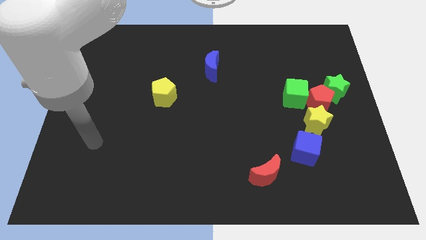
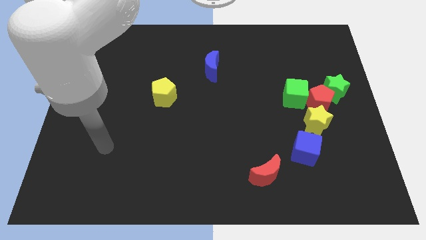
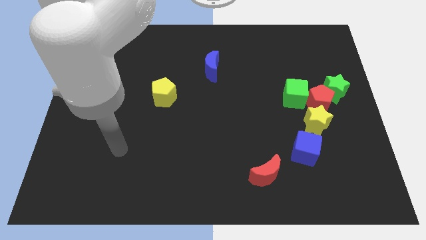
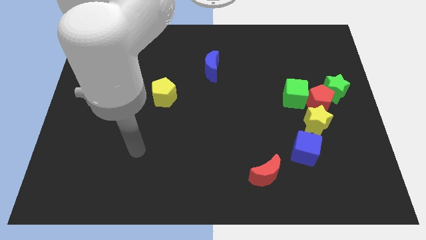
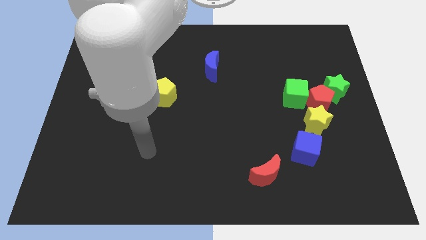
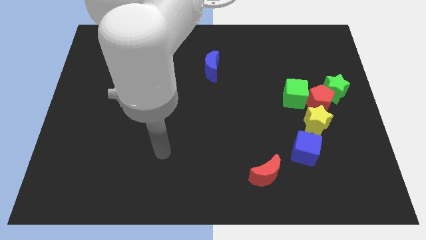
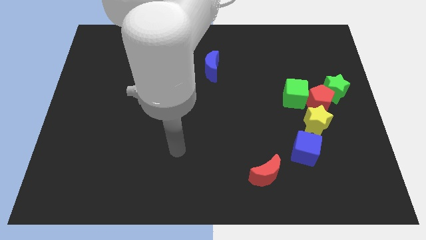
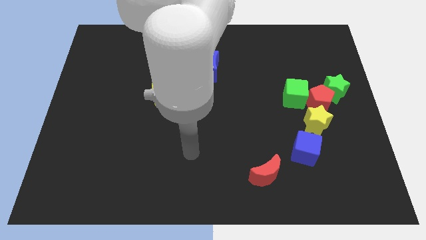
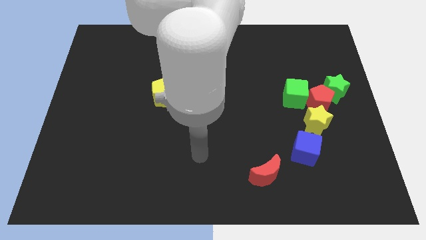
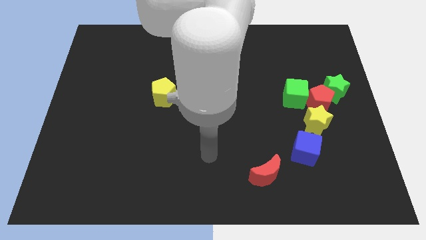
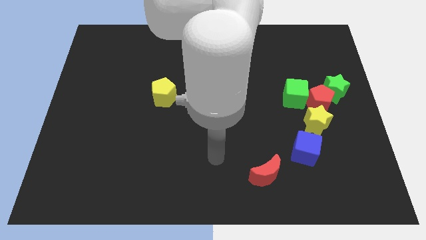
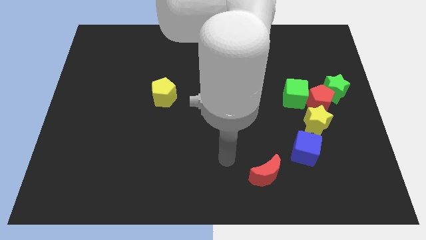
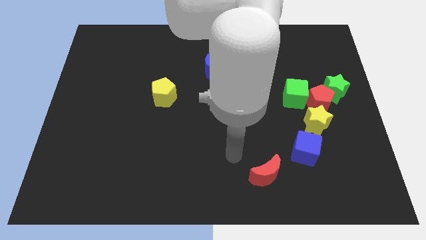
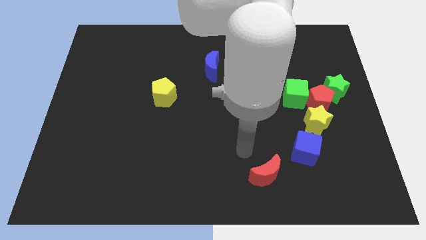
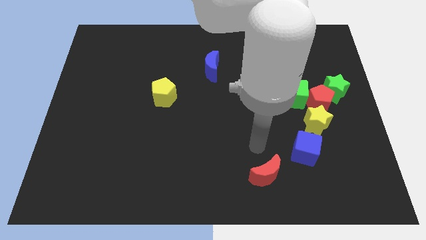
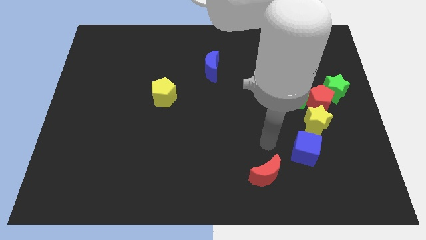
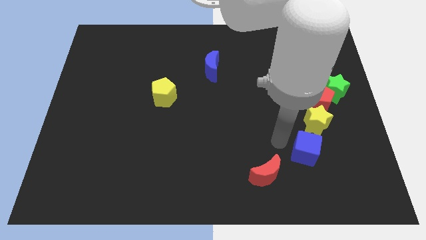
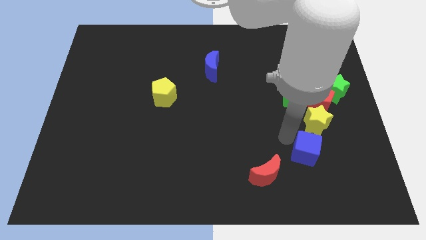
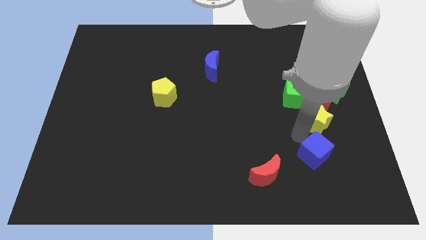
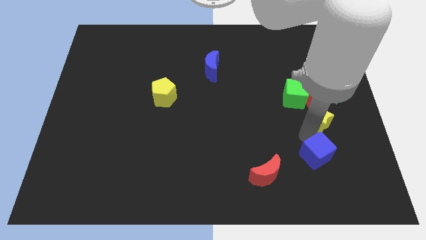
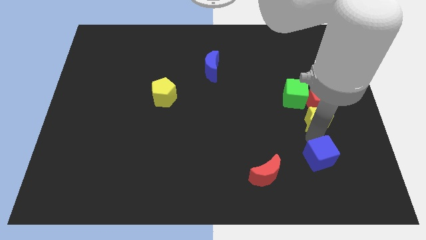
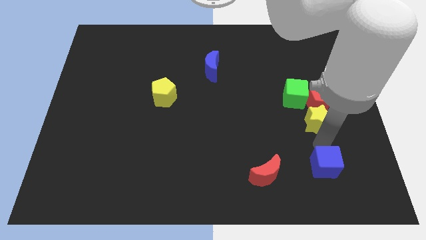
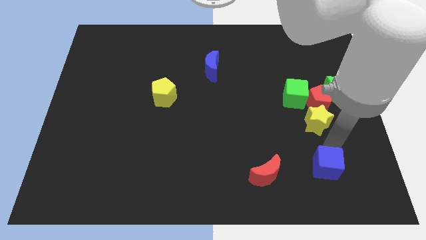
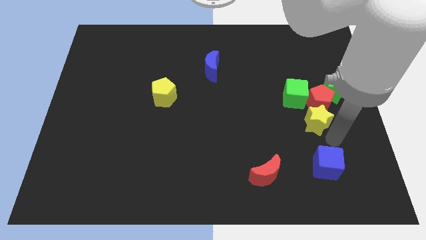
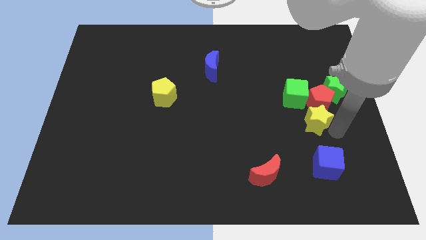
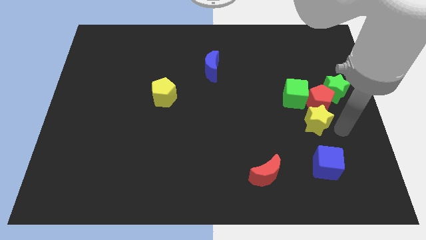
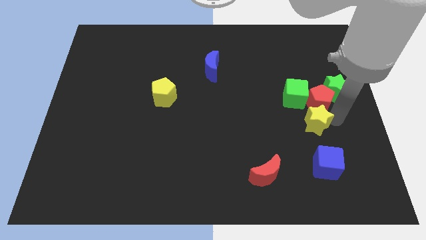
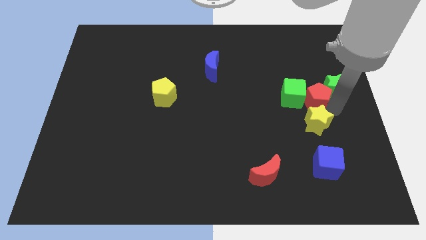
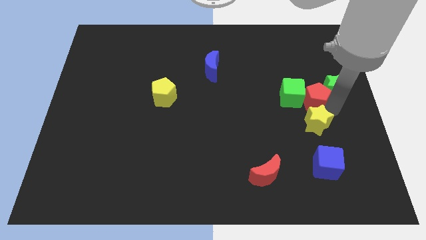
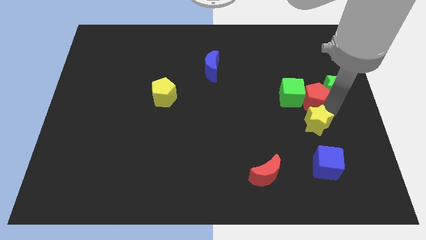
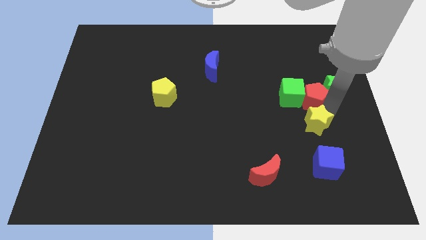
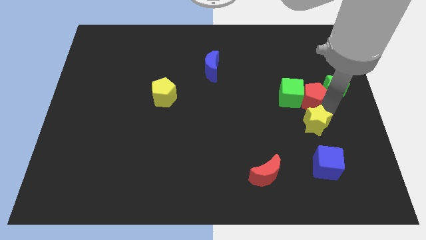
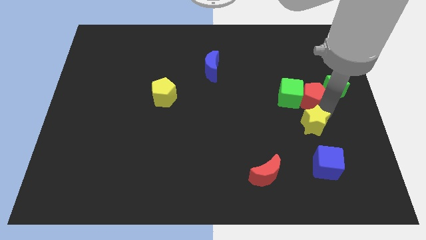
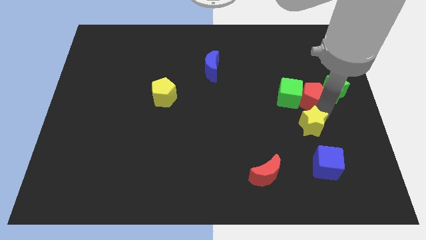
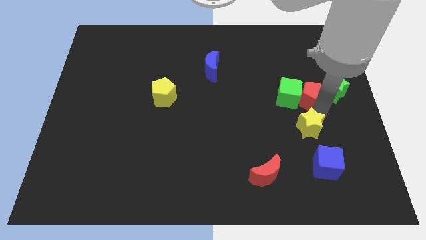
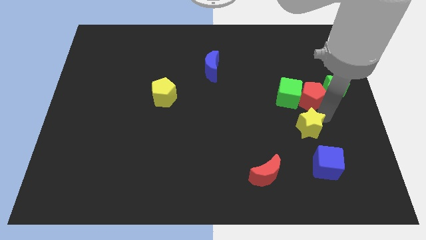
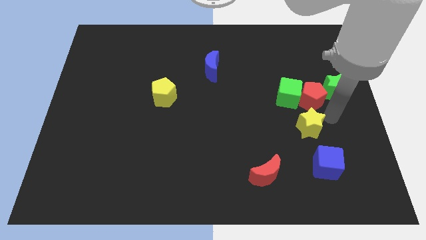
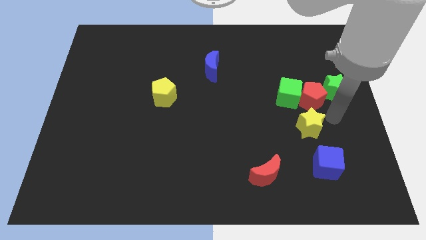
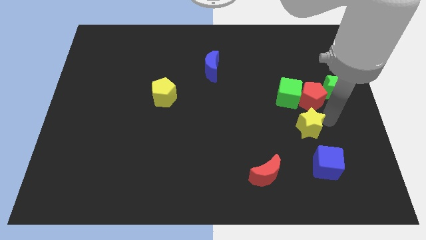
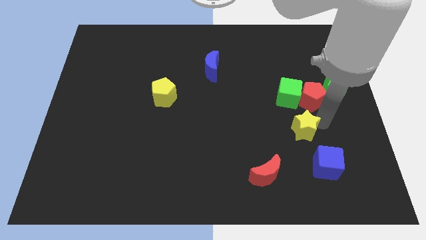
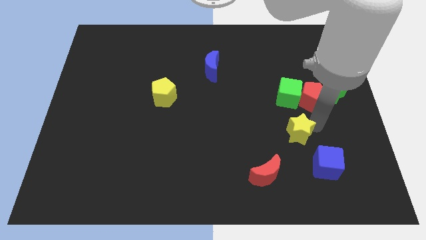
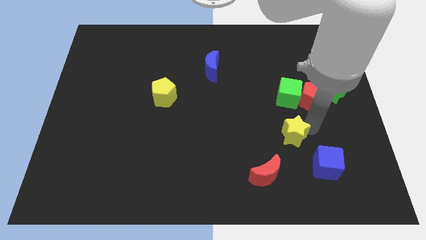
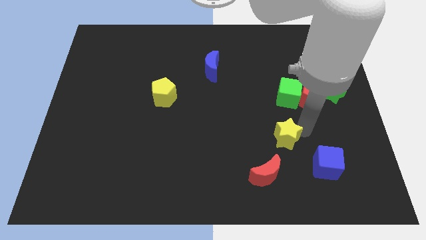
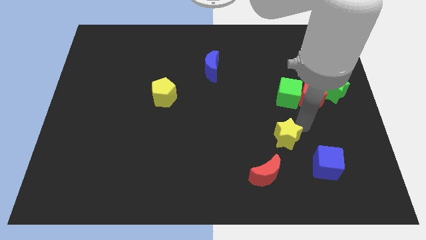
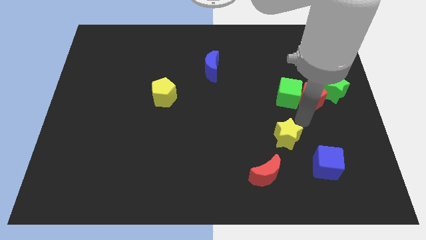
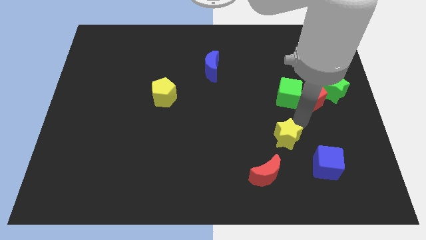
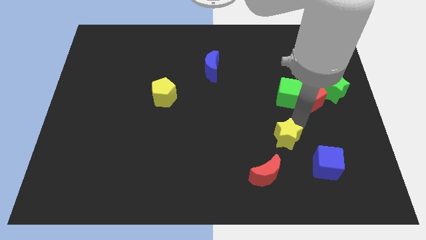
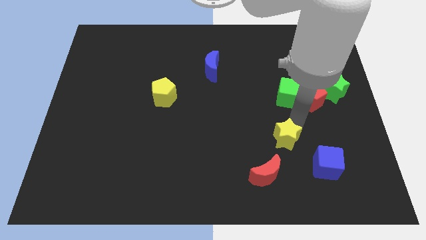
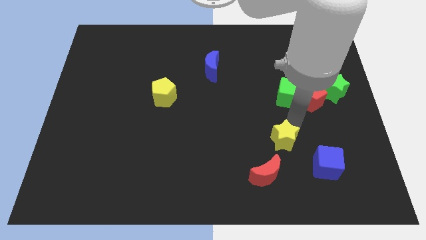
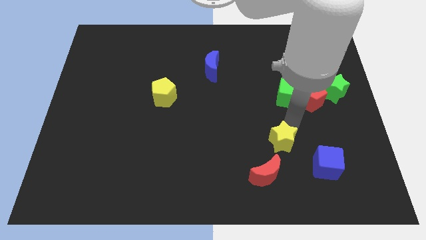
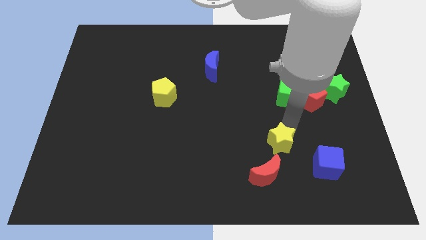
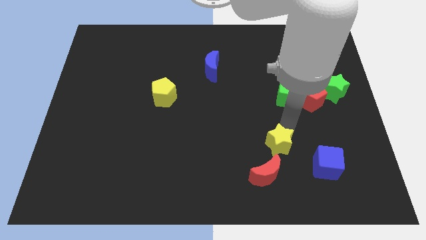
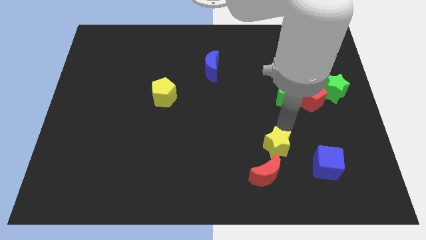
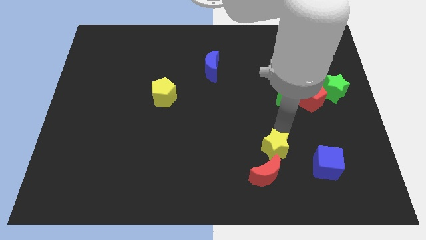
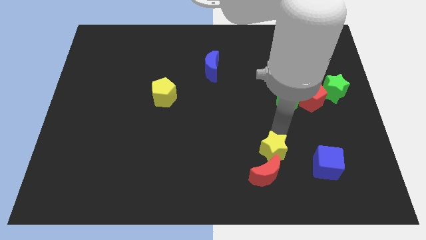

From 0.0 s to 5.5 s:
move the yellow star next to the red moon

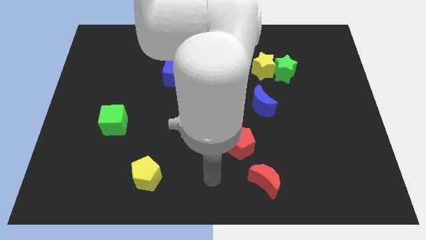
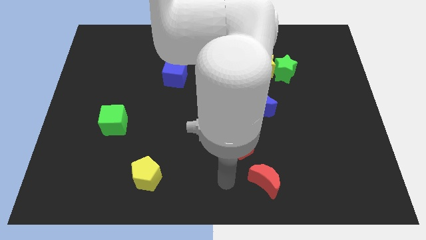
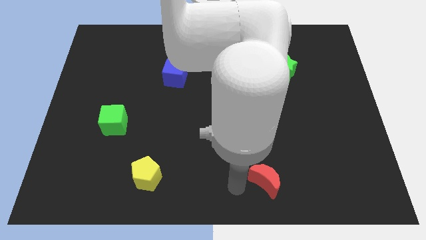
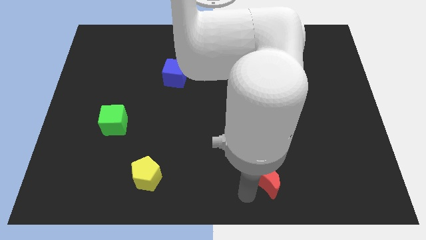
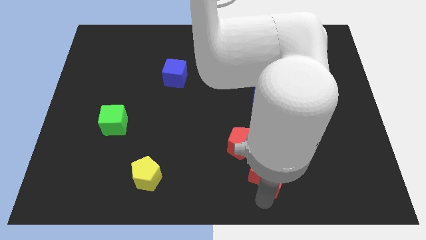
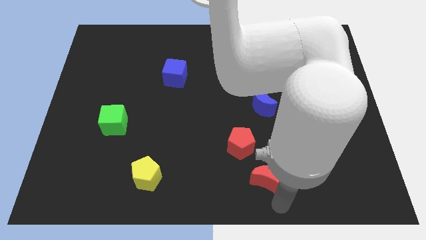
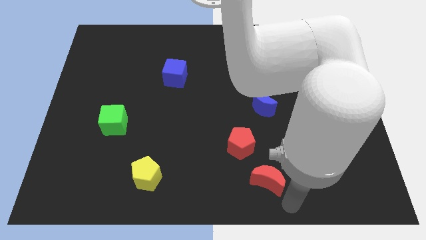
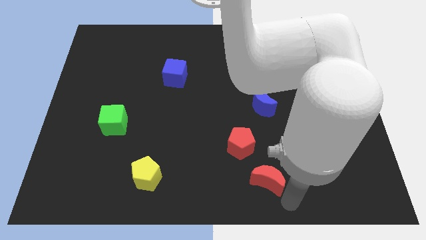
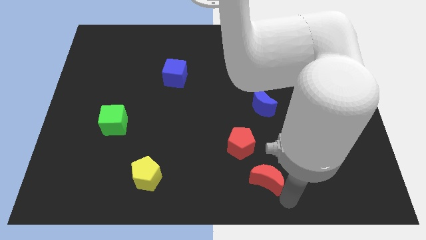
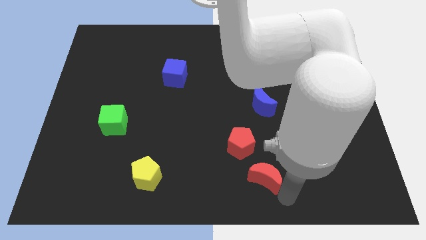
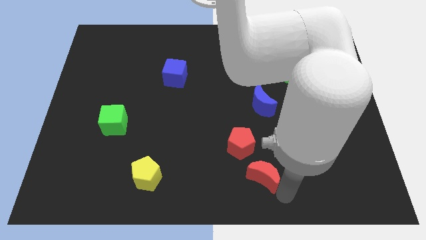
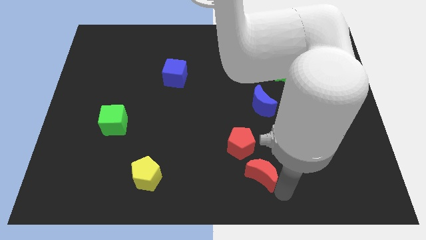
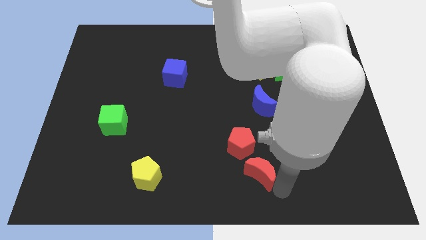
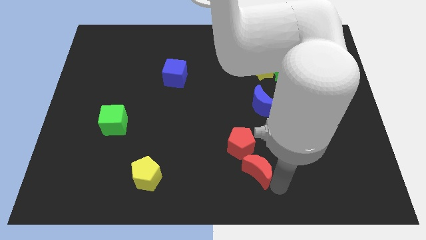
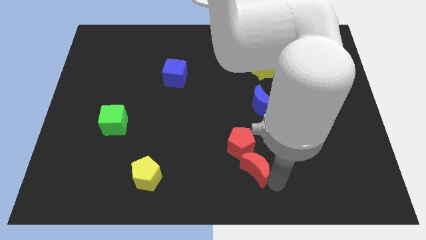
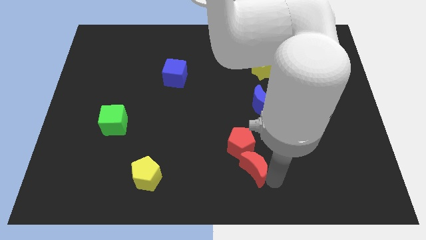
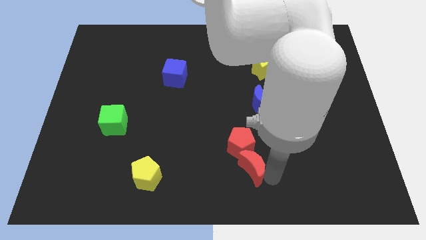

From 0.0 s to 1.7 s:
slide the red moon next to the red pentagon

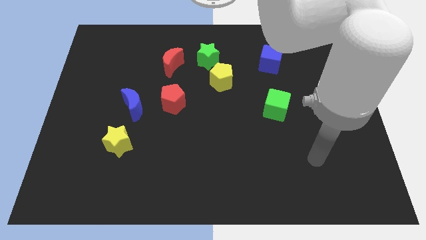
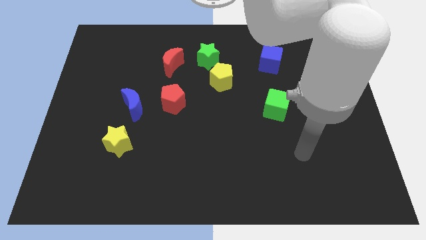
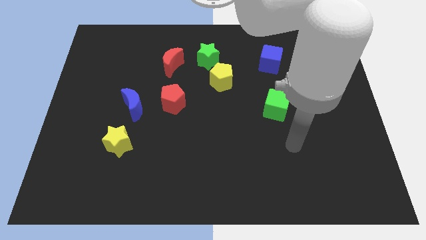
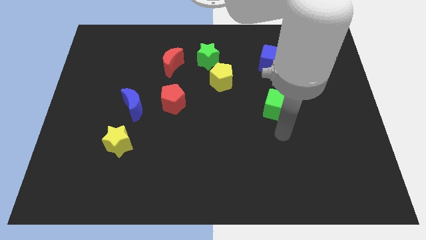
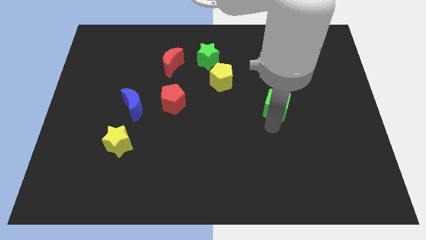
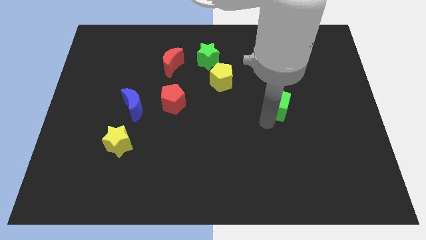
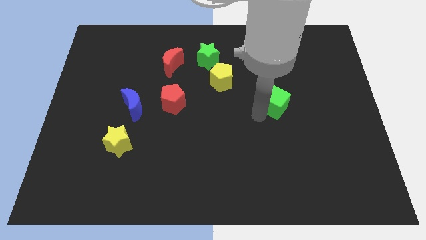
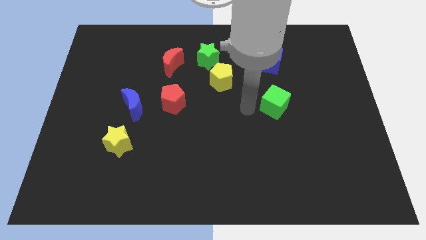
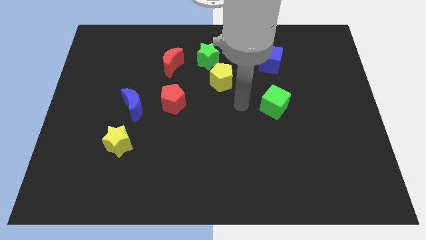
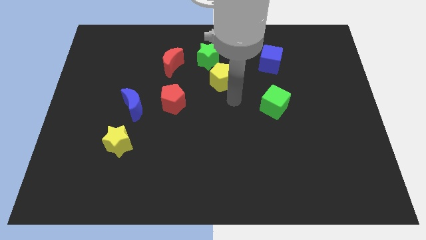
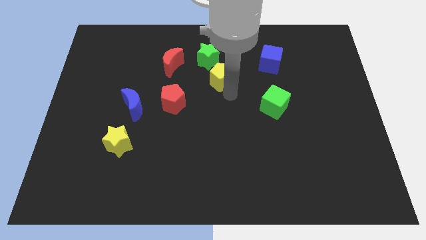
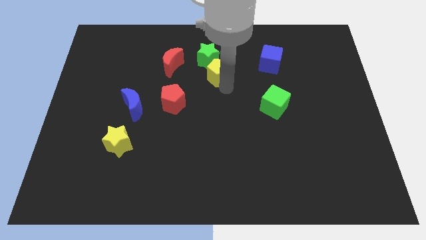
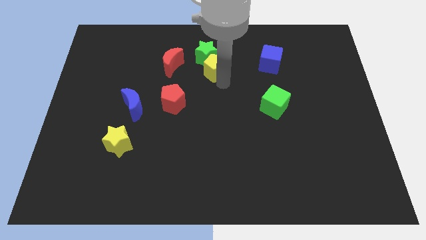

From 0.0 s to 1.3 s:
put the yellow pentagon close to the green star

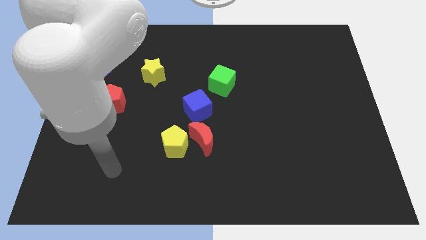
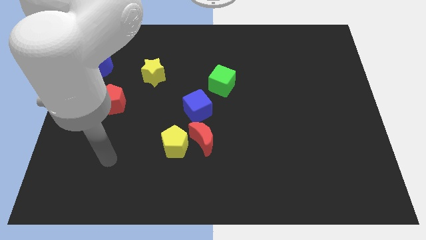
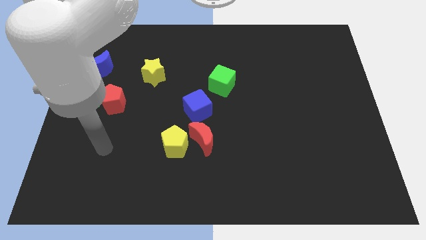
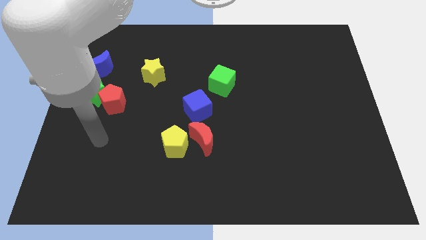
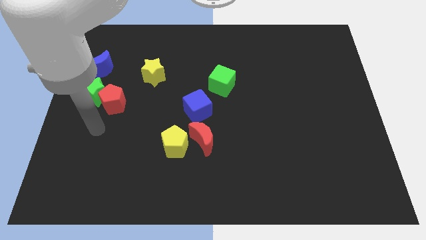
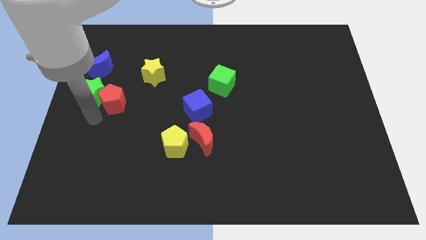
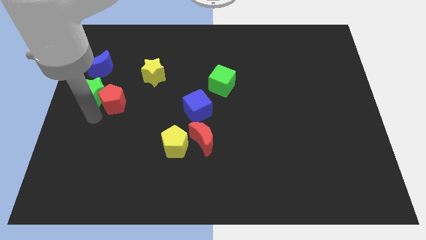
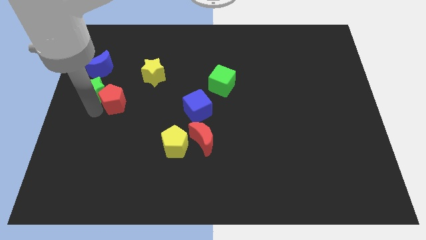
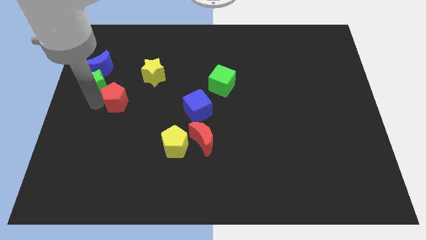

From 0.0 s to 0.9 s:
move the green star close to the blue moon
